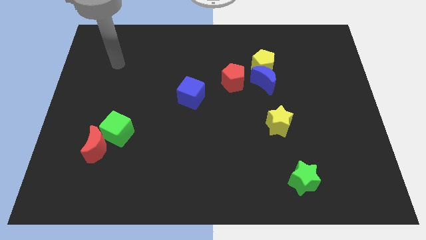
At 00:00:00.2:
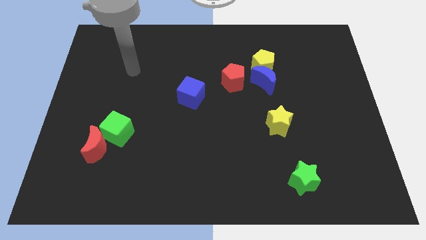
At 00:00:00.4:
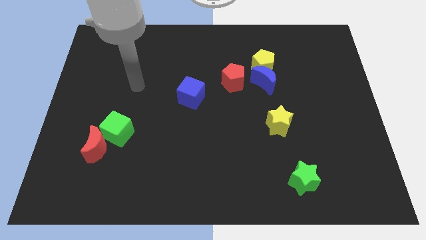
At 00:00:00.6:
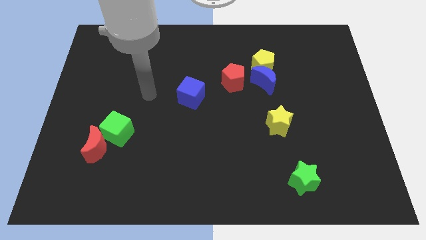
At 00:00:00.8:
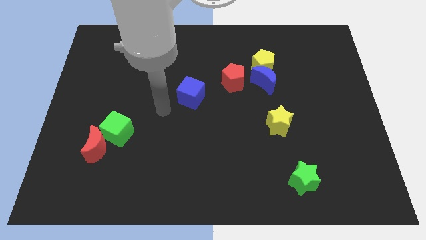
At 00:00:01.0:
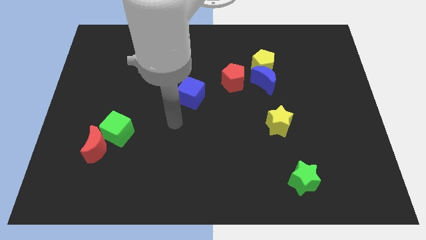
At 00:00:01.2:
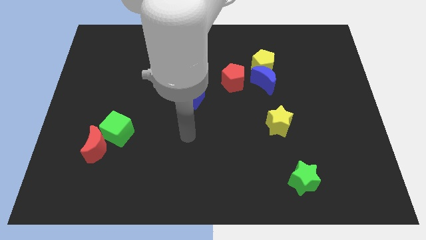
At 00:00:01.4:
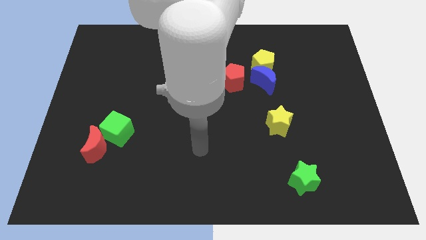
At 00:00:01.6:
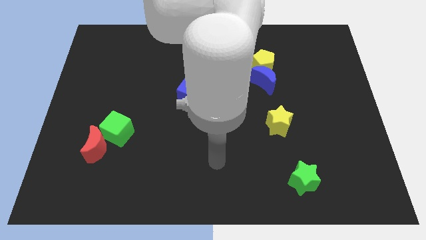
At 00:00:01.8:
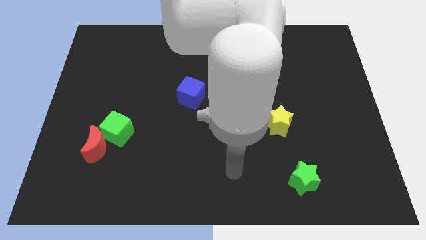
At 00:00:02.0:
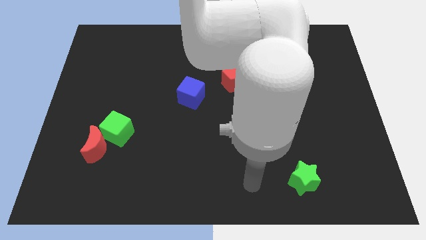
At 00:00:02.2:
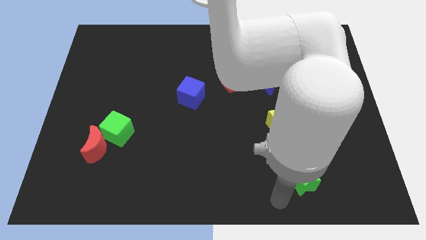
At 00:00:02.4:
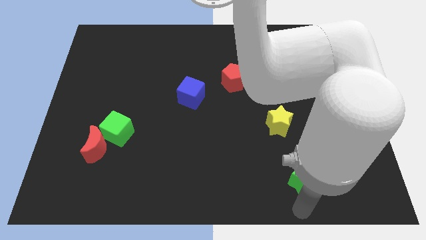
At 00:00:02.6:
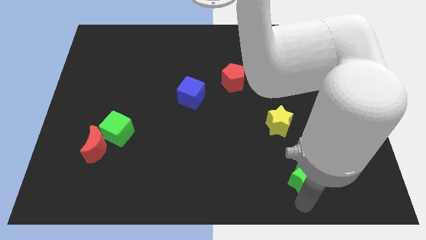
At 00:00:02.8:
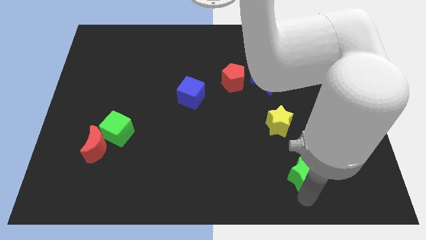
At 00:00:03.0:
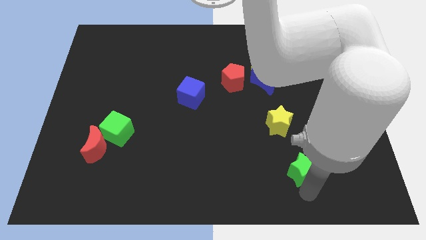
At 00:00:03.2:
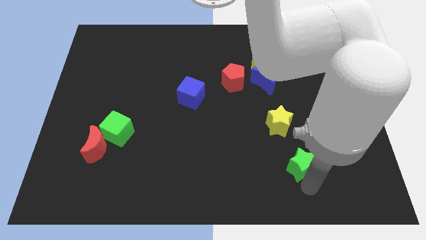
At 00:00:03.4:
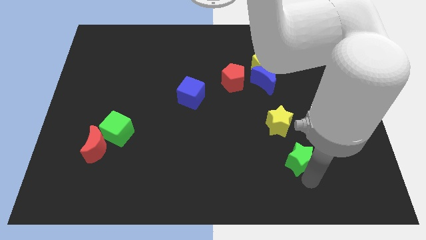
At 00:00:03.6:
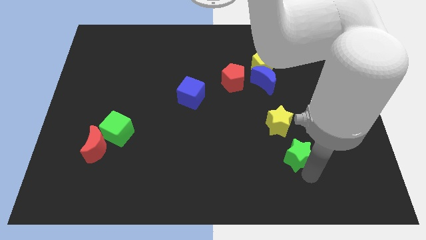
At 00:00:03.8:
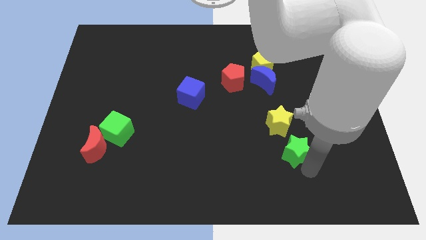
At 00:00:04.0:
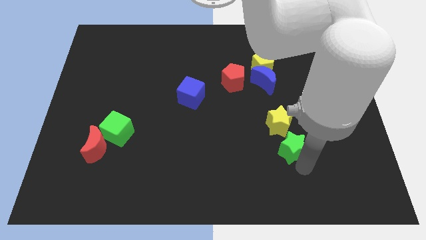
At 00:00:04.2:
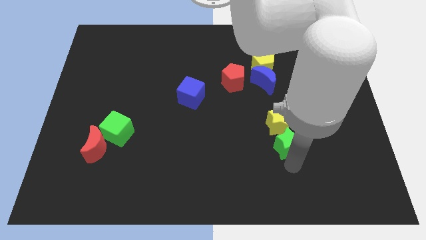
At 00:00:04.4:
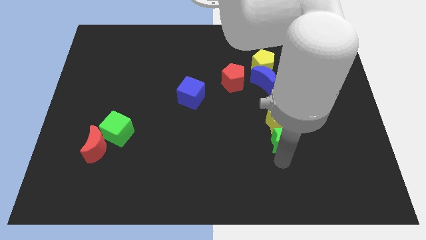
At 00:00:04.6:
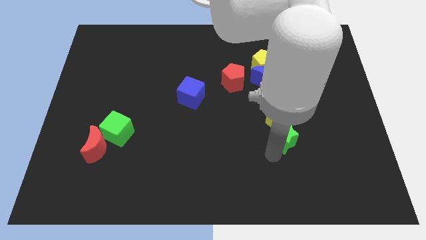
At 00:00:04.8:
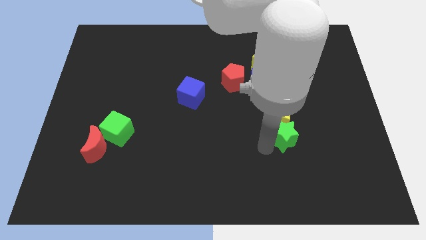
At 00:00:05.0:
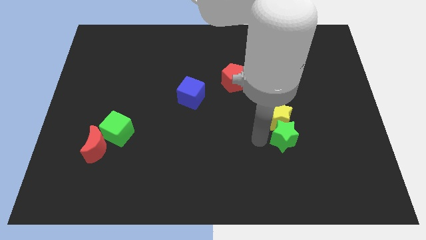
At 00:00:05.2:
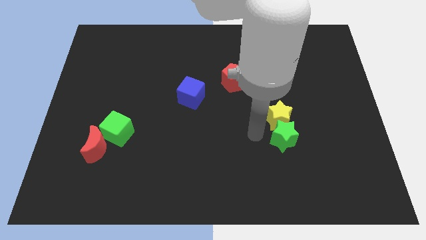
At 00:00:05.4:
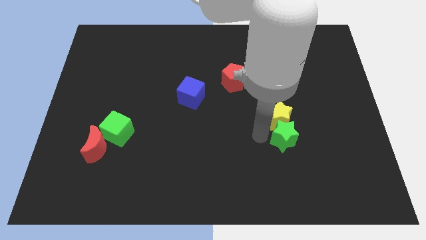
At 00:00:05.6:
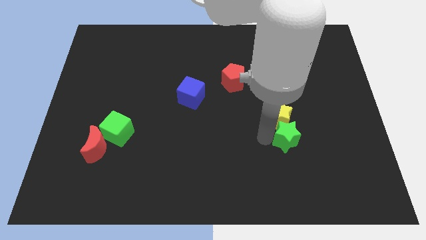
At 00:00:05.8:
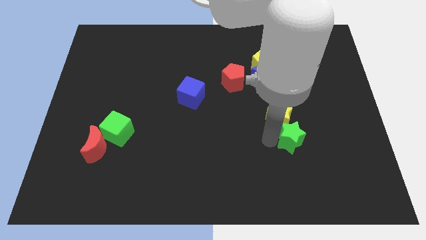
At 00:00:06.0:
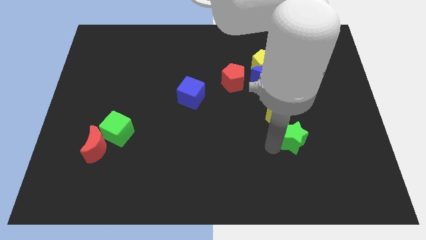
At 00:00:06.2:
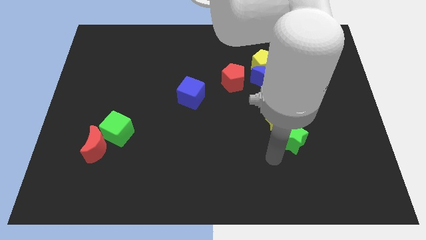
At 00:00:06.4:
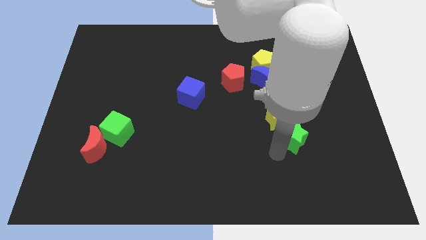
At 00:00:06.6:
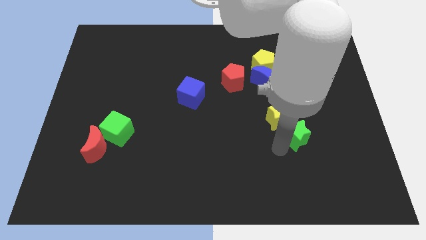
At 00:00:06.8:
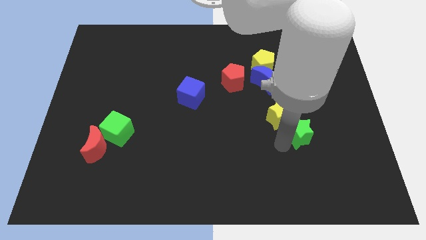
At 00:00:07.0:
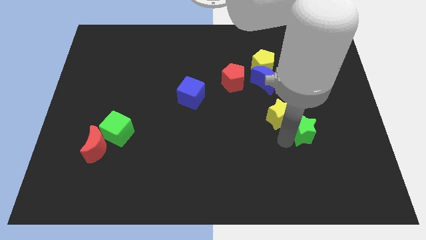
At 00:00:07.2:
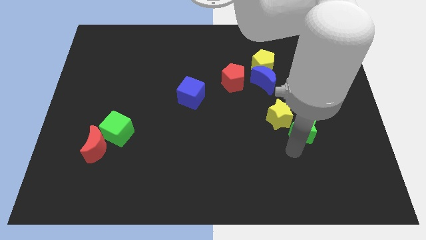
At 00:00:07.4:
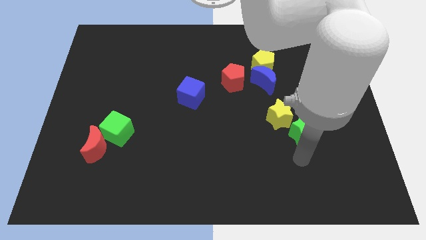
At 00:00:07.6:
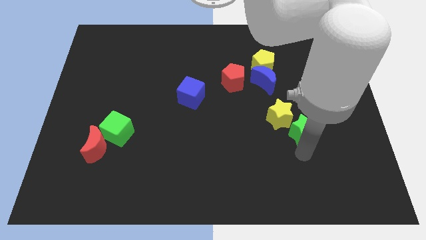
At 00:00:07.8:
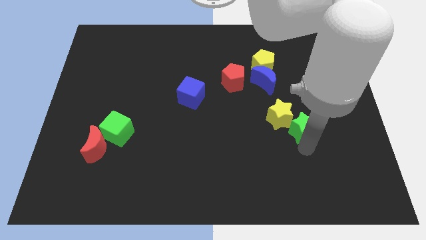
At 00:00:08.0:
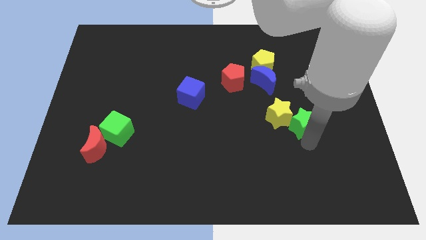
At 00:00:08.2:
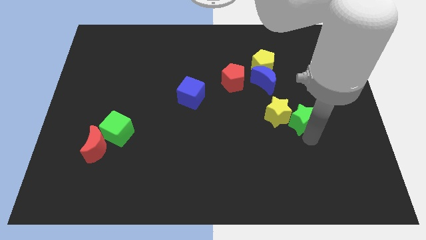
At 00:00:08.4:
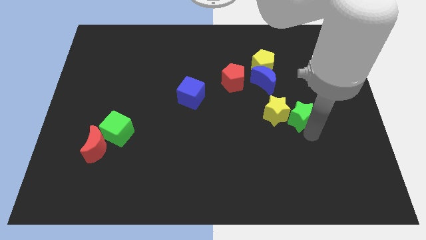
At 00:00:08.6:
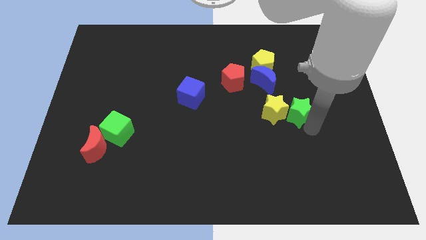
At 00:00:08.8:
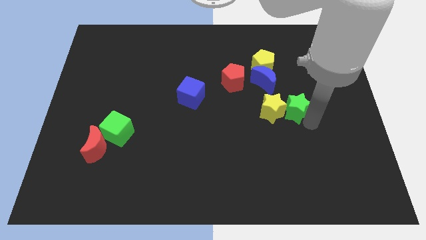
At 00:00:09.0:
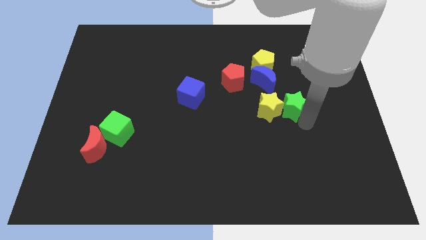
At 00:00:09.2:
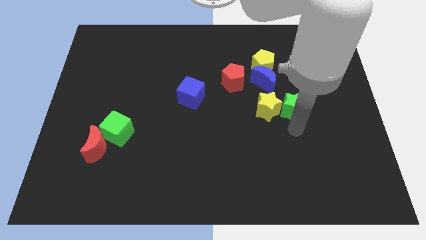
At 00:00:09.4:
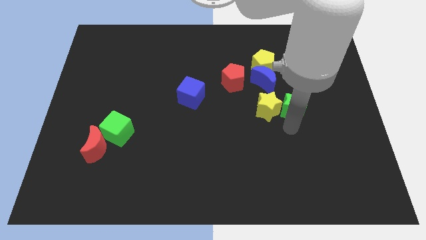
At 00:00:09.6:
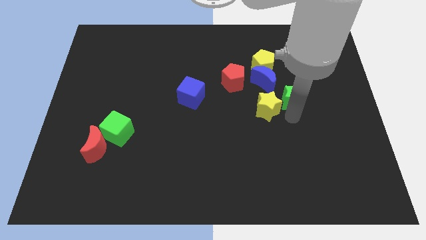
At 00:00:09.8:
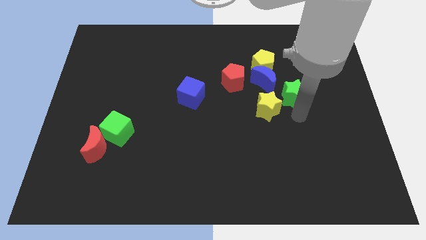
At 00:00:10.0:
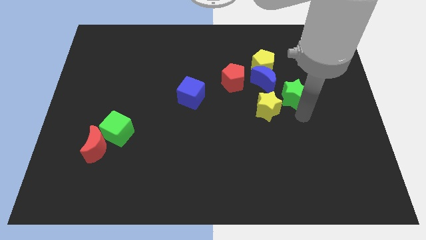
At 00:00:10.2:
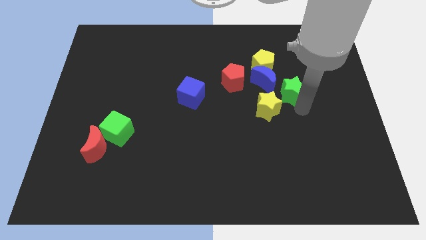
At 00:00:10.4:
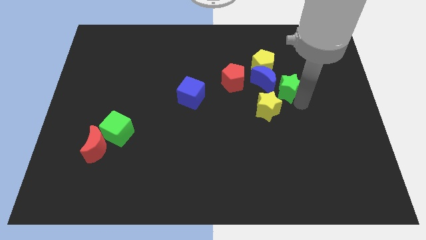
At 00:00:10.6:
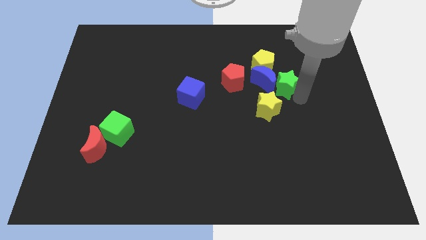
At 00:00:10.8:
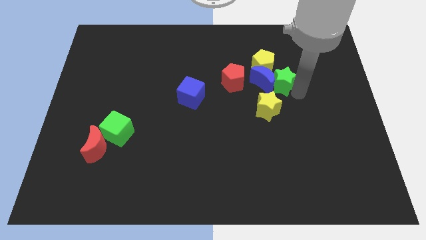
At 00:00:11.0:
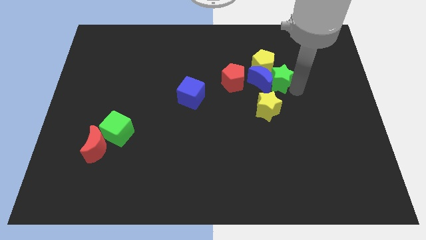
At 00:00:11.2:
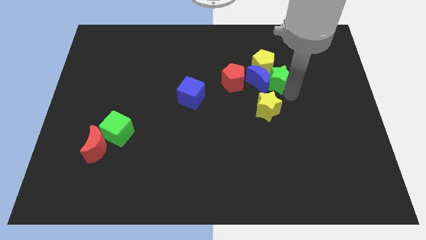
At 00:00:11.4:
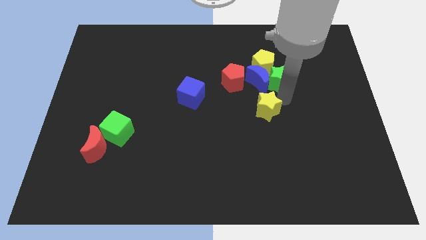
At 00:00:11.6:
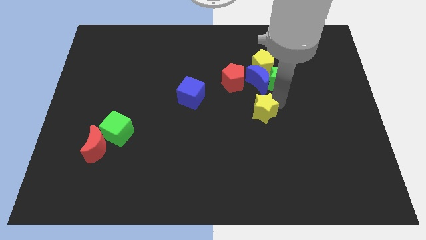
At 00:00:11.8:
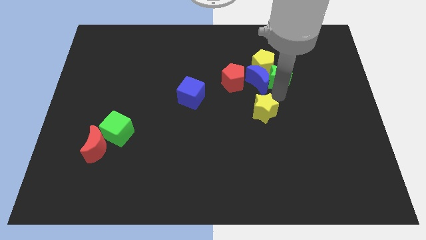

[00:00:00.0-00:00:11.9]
put the green star towards the yellow pentagon

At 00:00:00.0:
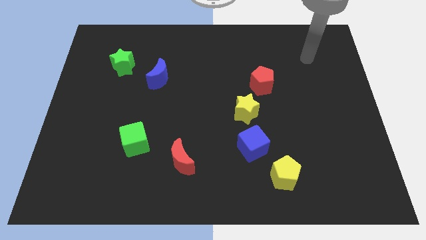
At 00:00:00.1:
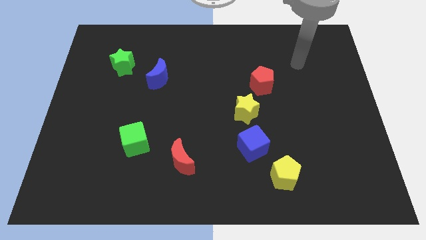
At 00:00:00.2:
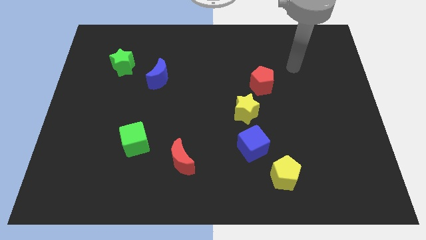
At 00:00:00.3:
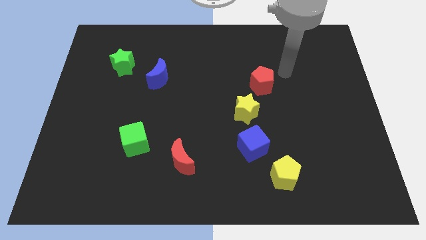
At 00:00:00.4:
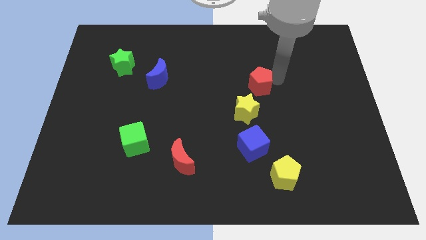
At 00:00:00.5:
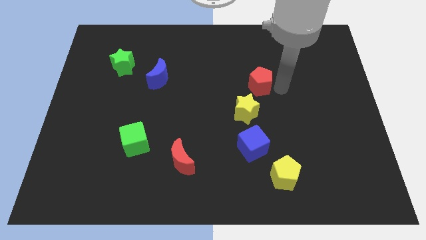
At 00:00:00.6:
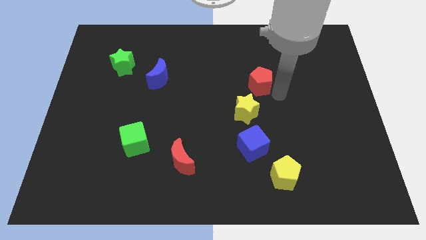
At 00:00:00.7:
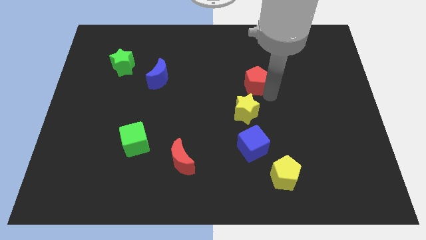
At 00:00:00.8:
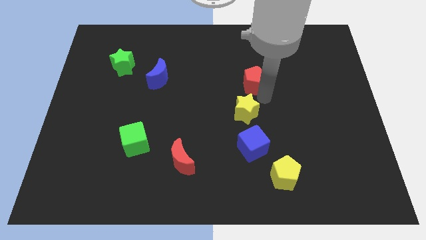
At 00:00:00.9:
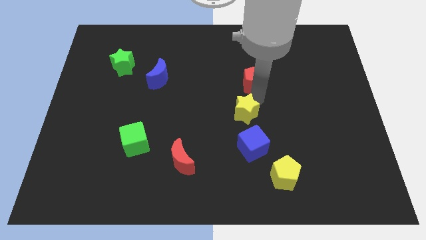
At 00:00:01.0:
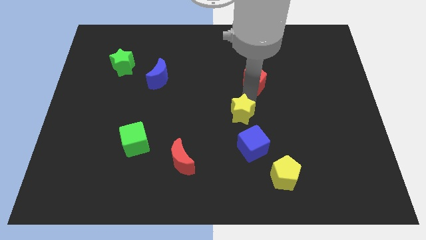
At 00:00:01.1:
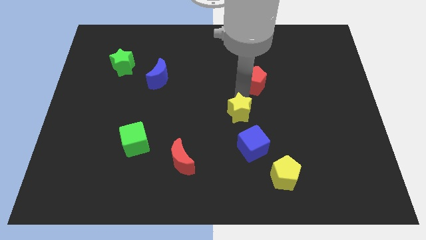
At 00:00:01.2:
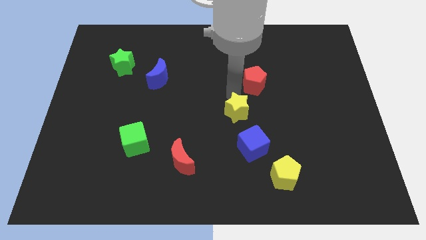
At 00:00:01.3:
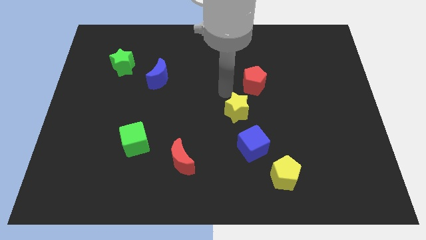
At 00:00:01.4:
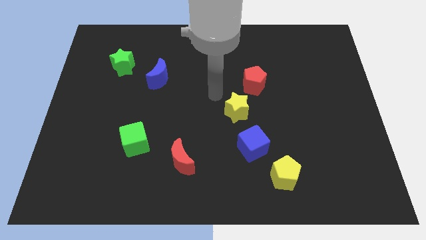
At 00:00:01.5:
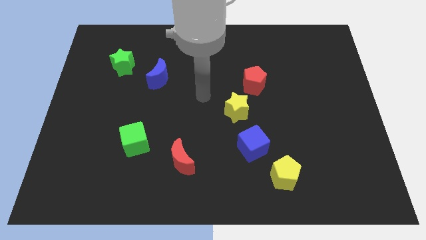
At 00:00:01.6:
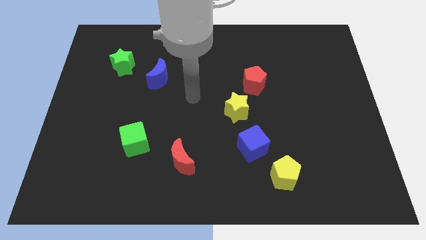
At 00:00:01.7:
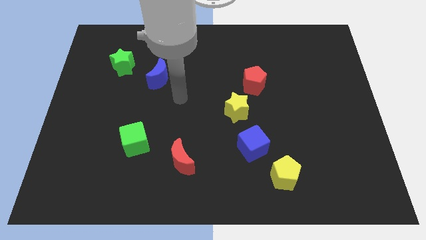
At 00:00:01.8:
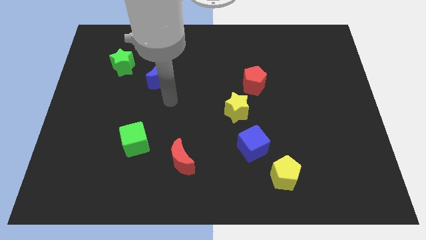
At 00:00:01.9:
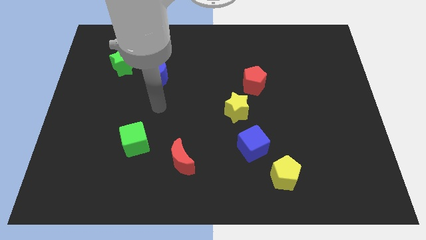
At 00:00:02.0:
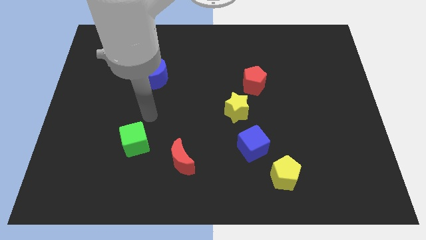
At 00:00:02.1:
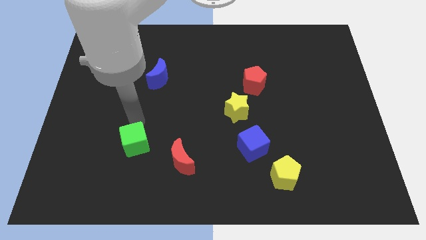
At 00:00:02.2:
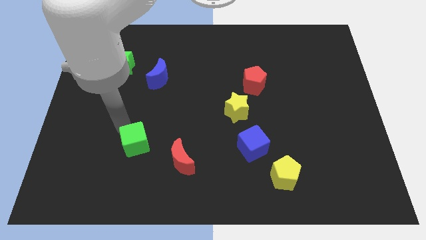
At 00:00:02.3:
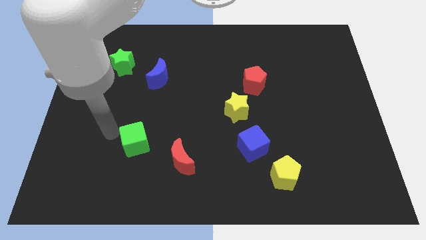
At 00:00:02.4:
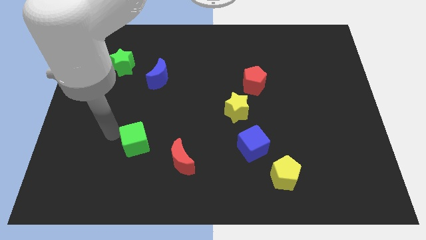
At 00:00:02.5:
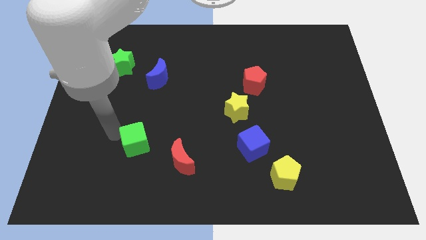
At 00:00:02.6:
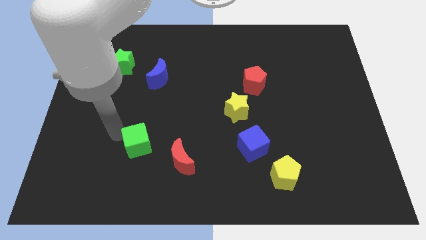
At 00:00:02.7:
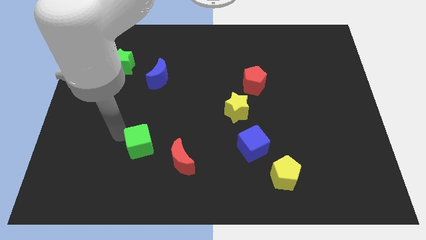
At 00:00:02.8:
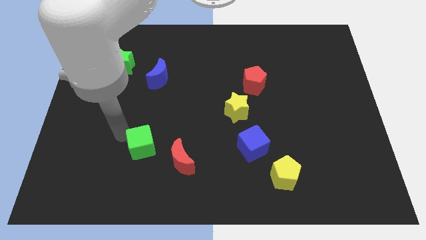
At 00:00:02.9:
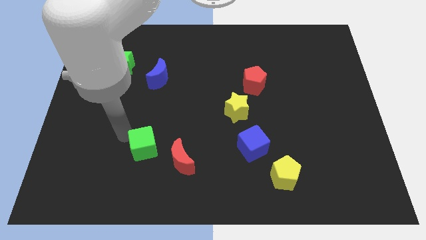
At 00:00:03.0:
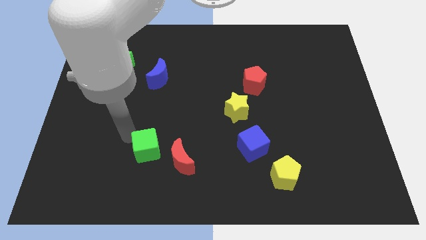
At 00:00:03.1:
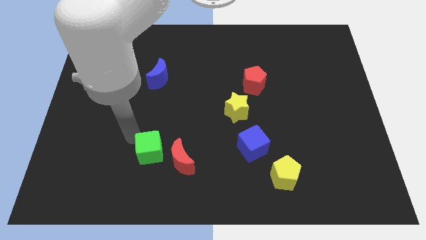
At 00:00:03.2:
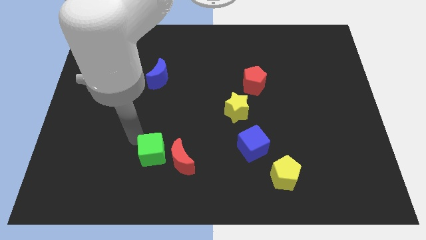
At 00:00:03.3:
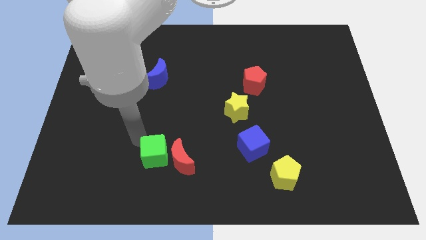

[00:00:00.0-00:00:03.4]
slide the green cube towards the red moon
